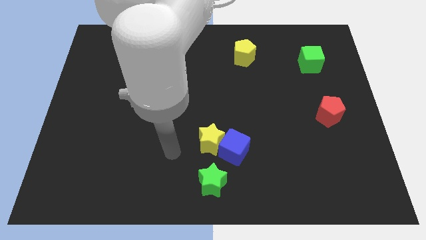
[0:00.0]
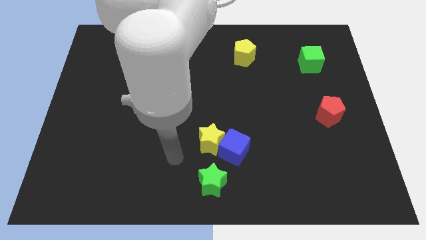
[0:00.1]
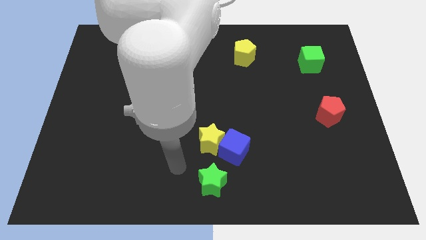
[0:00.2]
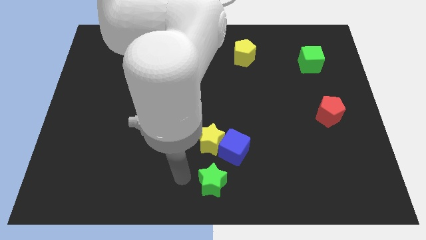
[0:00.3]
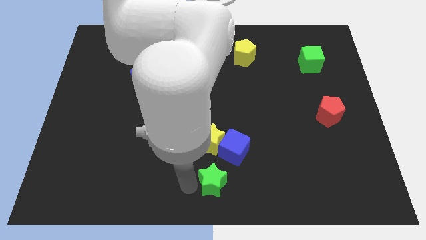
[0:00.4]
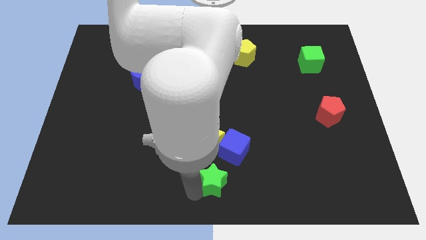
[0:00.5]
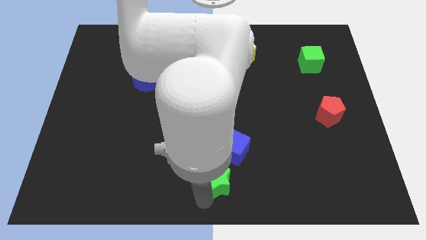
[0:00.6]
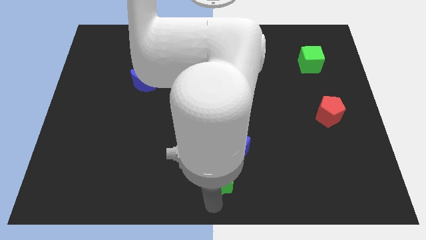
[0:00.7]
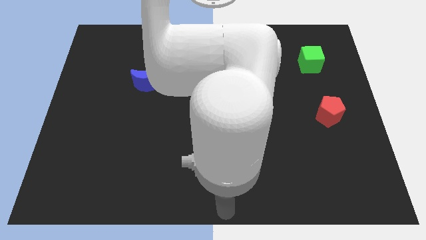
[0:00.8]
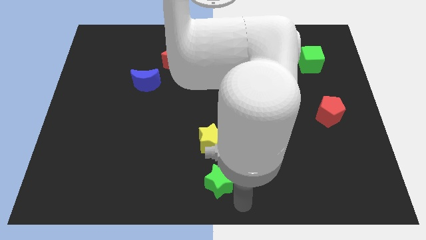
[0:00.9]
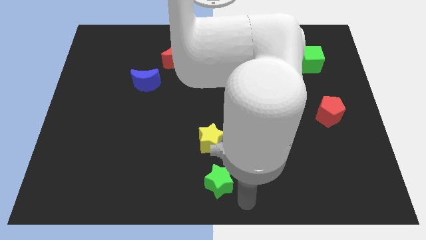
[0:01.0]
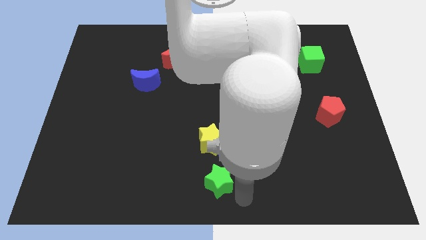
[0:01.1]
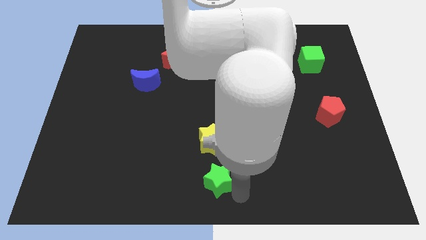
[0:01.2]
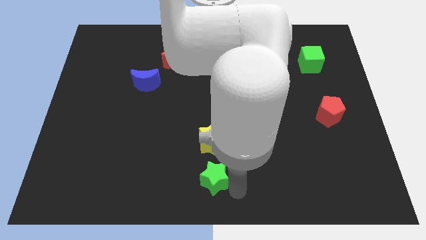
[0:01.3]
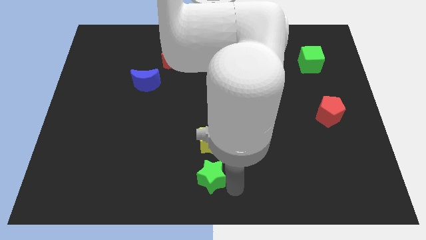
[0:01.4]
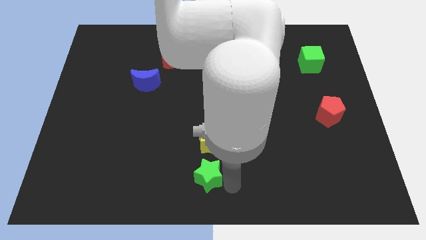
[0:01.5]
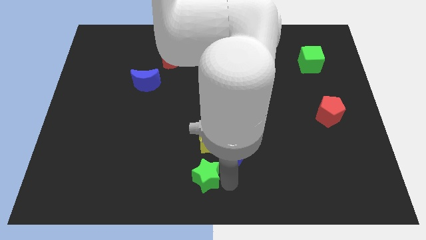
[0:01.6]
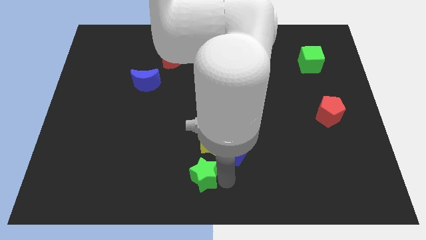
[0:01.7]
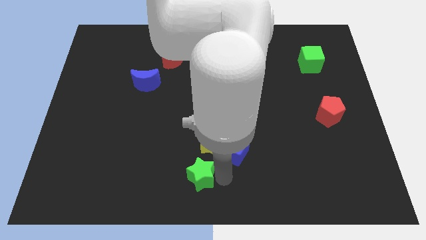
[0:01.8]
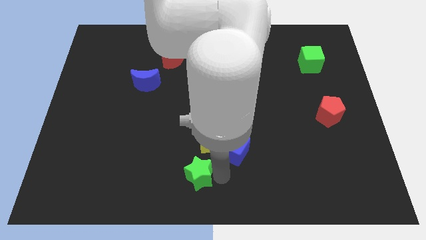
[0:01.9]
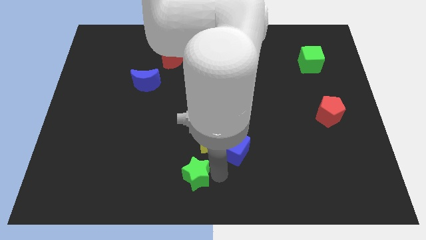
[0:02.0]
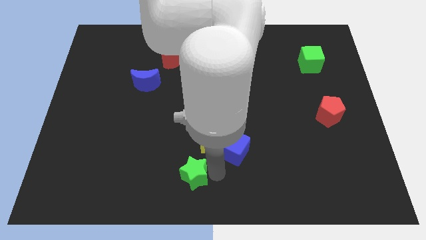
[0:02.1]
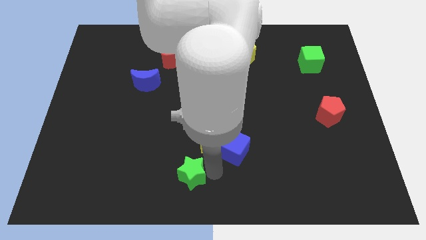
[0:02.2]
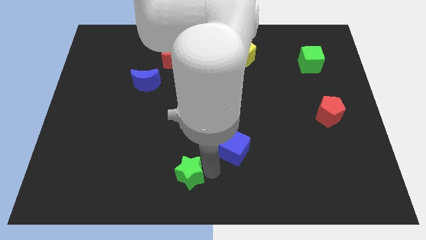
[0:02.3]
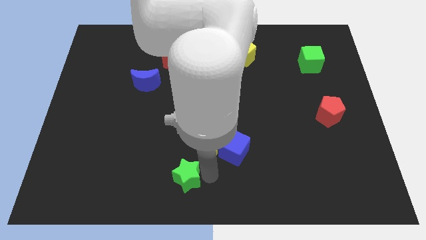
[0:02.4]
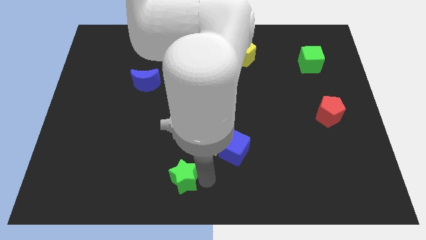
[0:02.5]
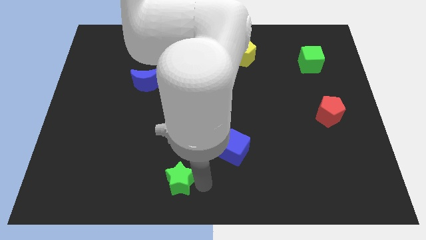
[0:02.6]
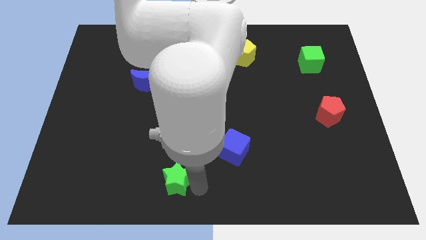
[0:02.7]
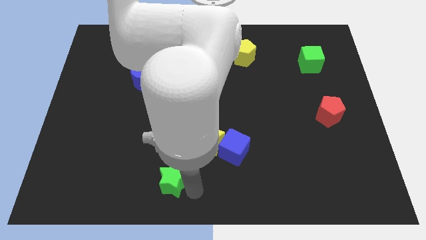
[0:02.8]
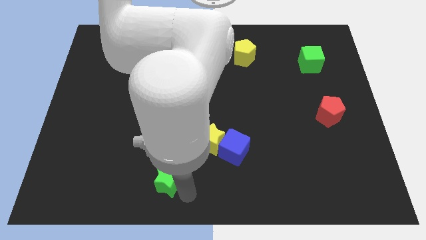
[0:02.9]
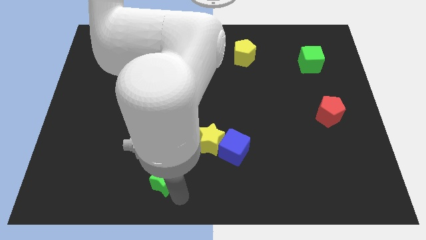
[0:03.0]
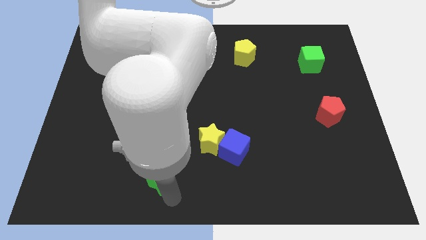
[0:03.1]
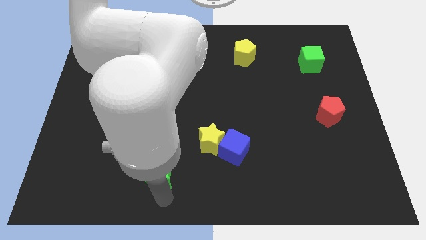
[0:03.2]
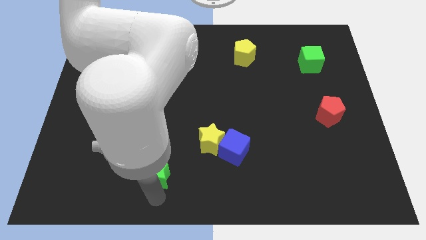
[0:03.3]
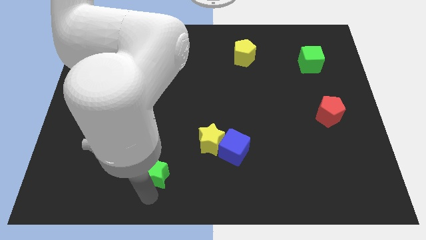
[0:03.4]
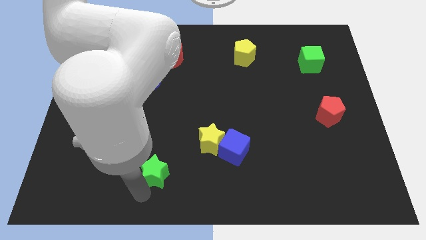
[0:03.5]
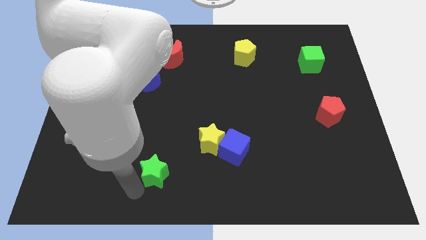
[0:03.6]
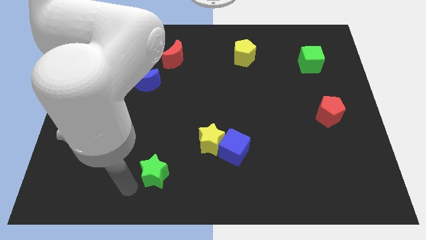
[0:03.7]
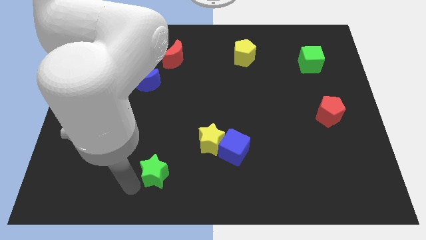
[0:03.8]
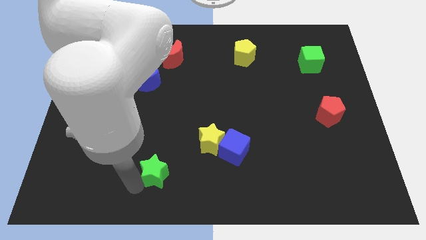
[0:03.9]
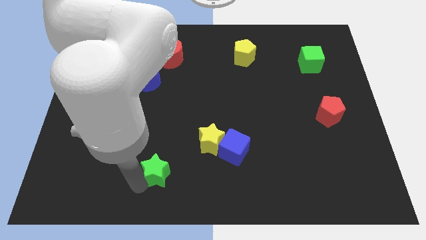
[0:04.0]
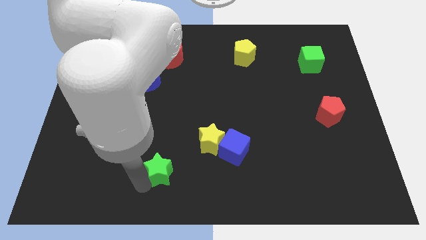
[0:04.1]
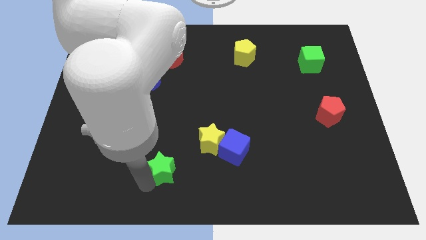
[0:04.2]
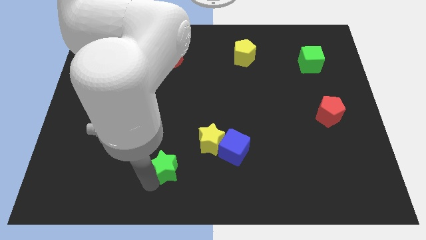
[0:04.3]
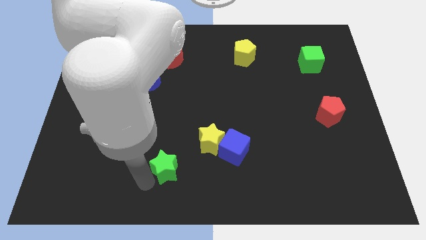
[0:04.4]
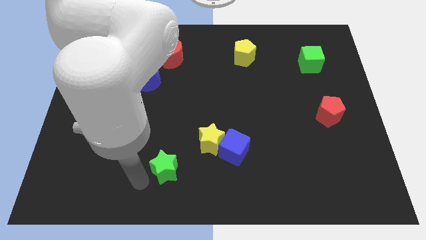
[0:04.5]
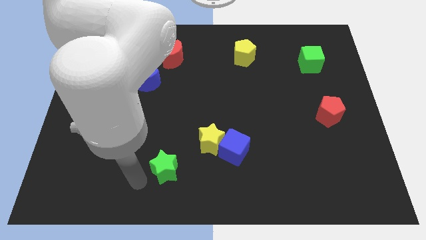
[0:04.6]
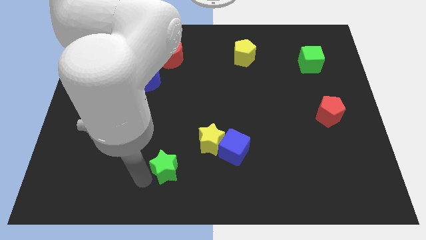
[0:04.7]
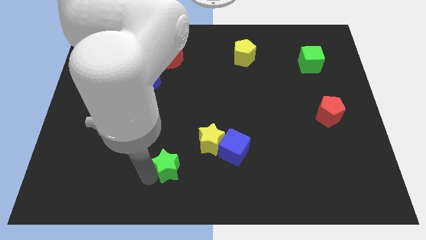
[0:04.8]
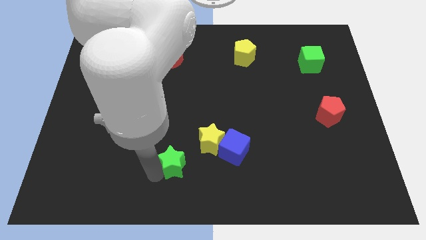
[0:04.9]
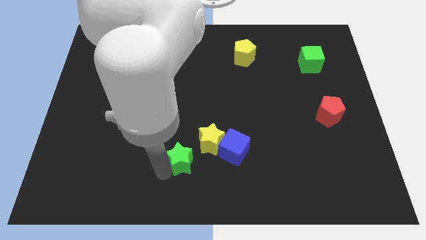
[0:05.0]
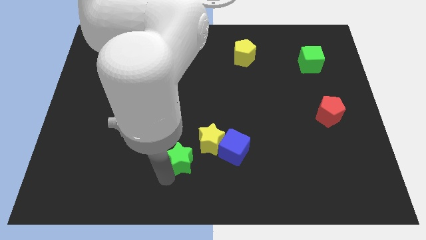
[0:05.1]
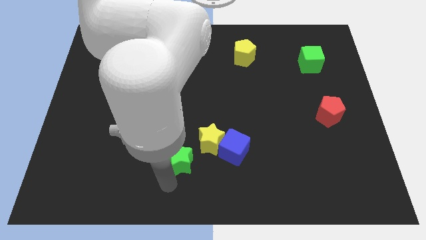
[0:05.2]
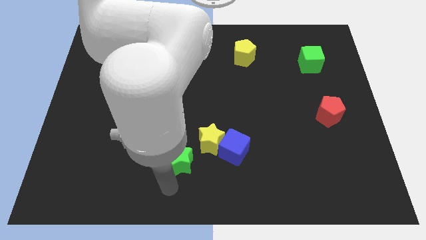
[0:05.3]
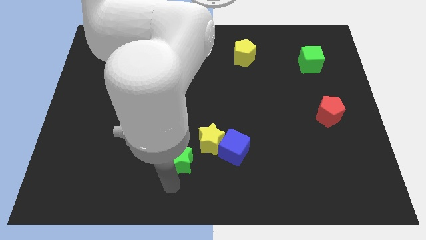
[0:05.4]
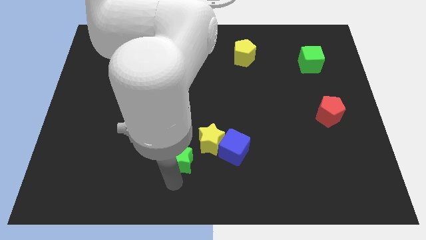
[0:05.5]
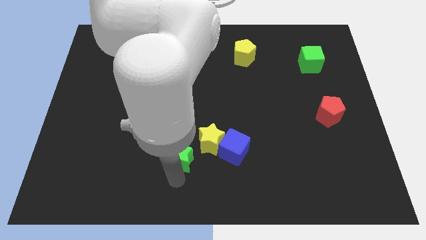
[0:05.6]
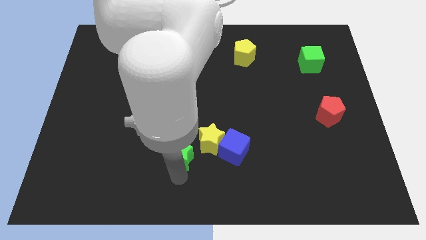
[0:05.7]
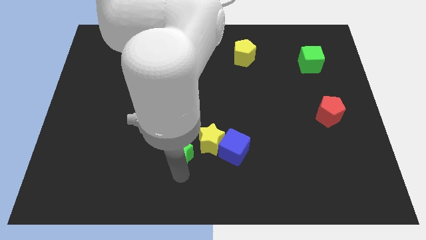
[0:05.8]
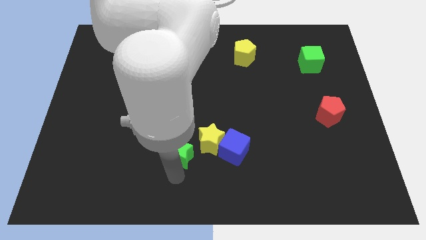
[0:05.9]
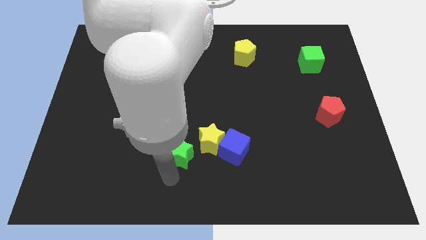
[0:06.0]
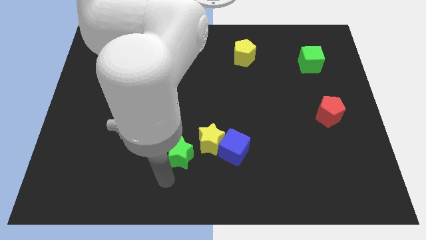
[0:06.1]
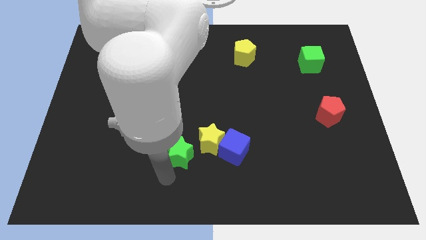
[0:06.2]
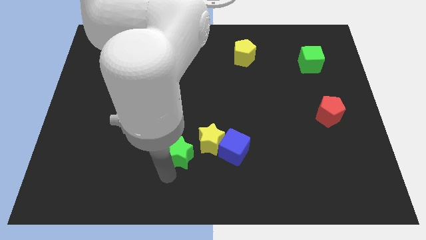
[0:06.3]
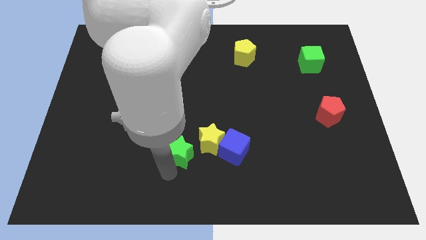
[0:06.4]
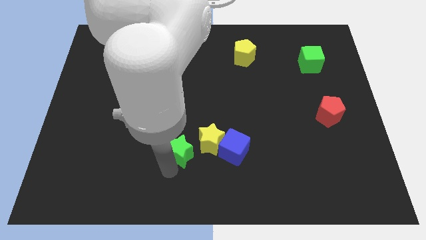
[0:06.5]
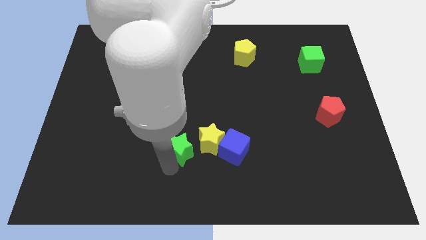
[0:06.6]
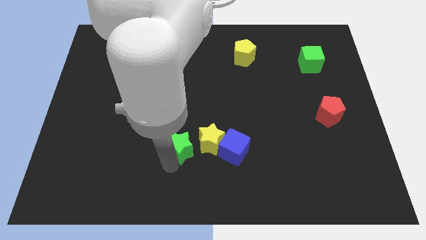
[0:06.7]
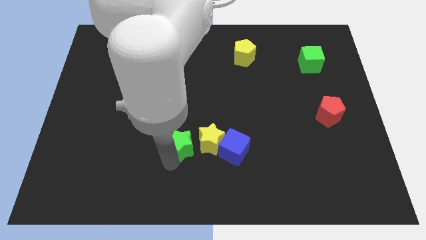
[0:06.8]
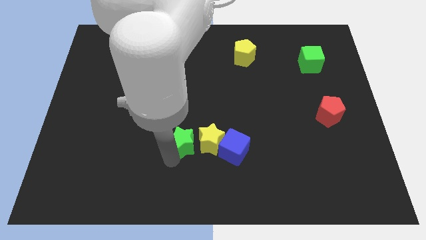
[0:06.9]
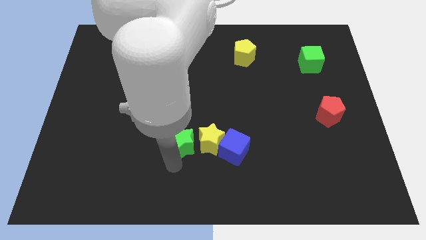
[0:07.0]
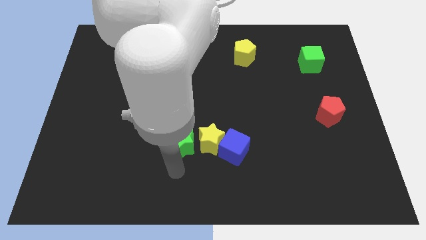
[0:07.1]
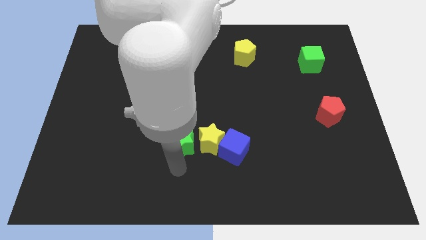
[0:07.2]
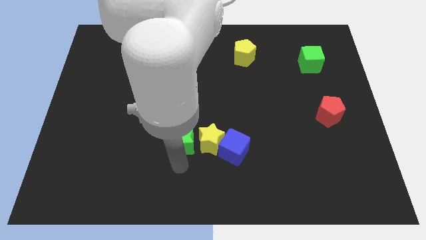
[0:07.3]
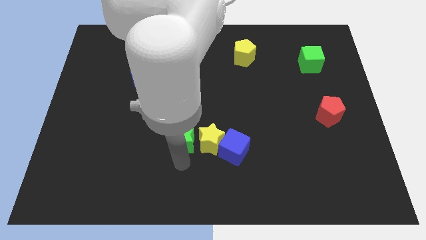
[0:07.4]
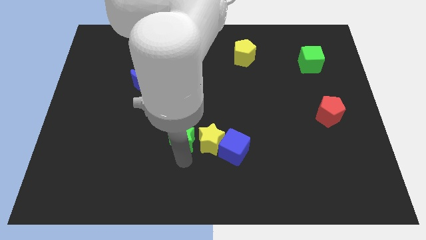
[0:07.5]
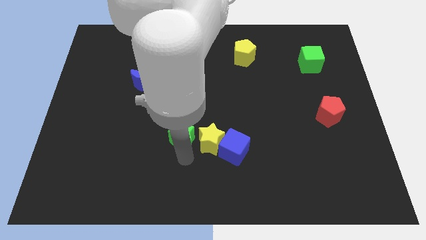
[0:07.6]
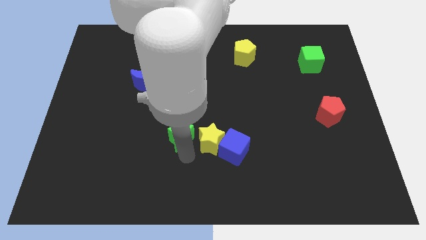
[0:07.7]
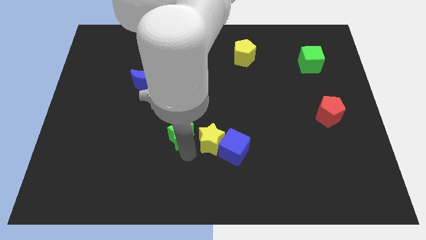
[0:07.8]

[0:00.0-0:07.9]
move the green star to the middle
